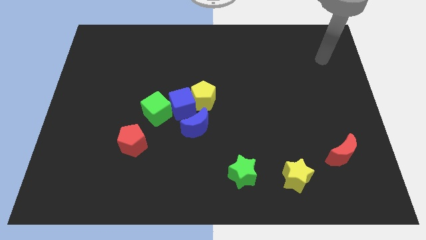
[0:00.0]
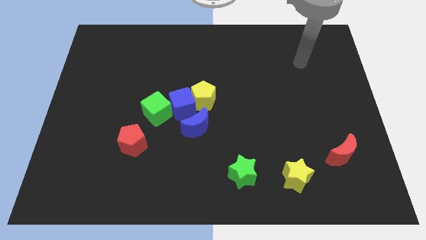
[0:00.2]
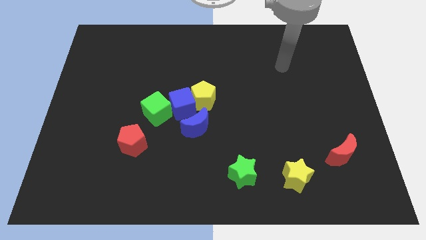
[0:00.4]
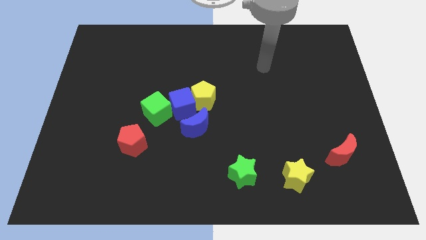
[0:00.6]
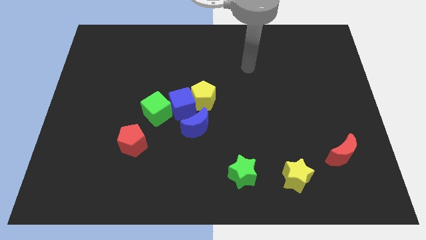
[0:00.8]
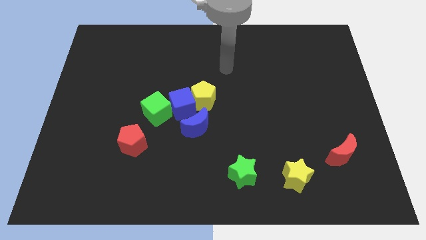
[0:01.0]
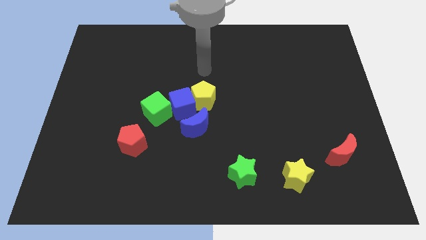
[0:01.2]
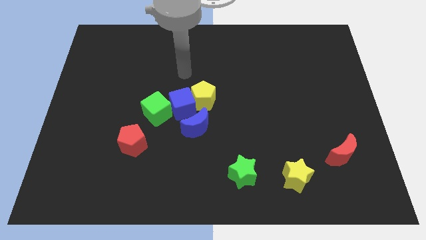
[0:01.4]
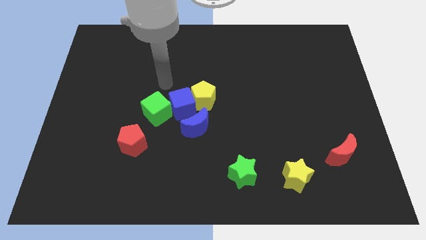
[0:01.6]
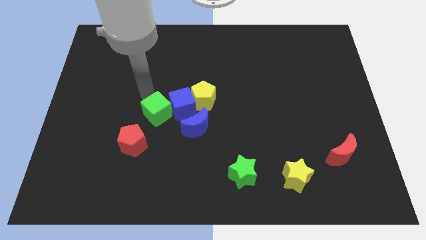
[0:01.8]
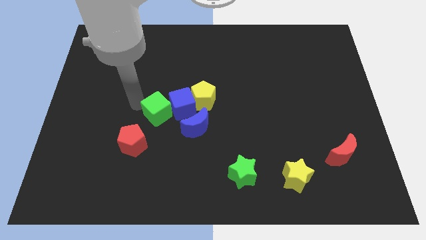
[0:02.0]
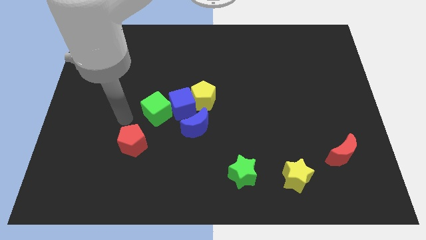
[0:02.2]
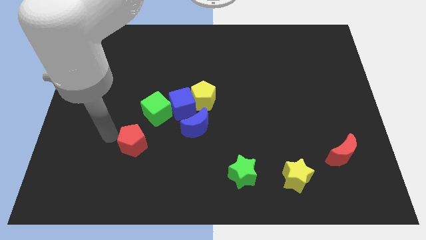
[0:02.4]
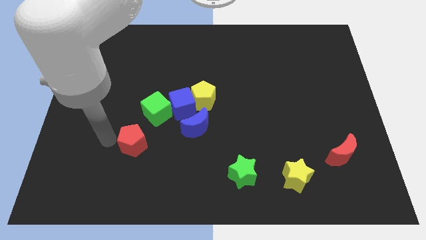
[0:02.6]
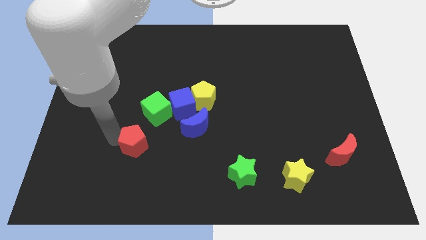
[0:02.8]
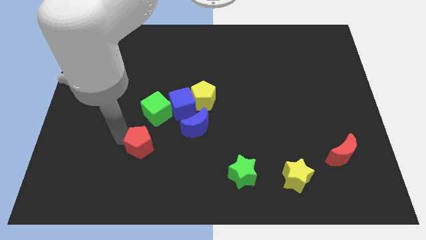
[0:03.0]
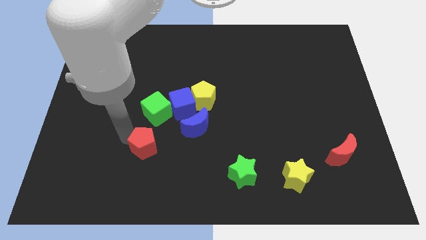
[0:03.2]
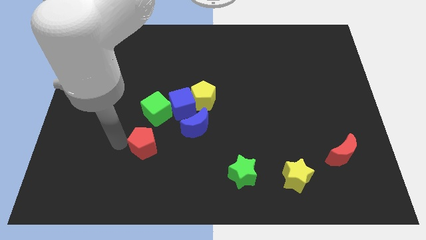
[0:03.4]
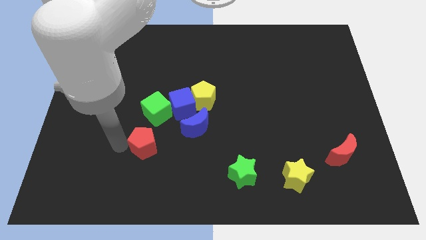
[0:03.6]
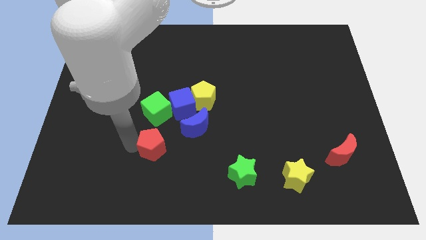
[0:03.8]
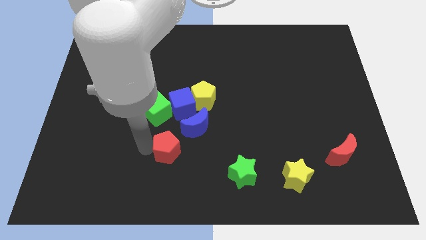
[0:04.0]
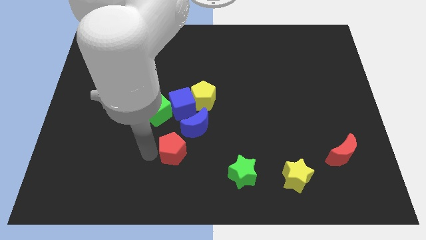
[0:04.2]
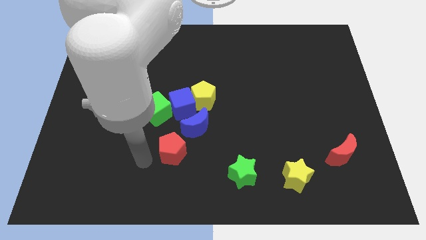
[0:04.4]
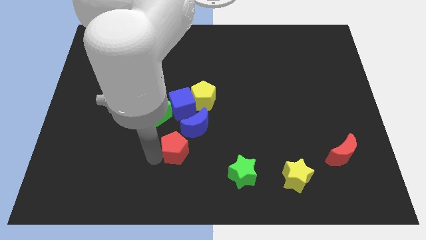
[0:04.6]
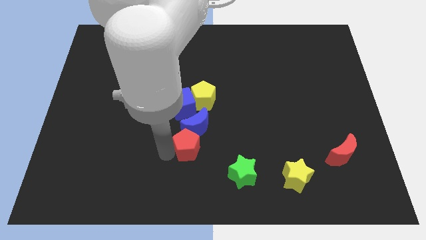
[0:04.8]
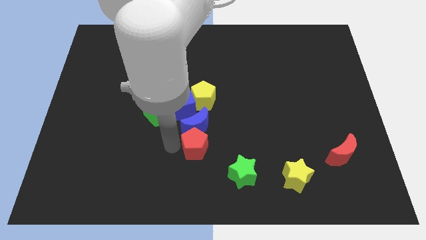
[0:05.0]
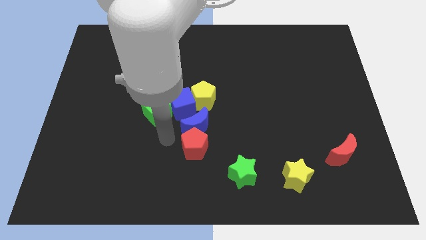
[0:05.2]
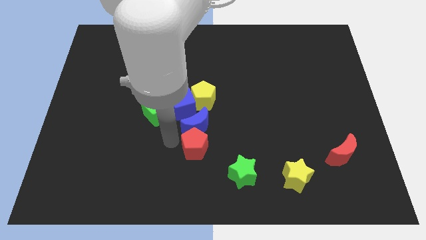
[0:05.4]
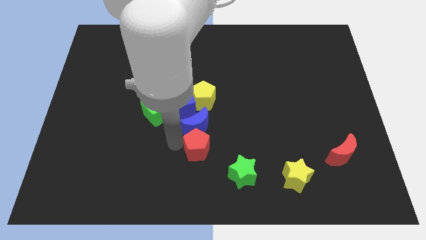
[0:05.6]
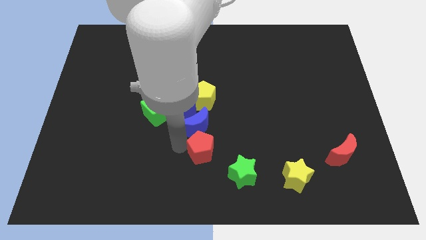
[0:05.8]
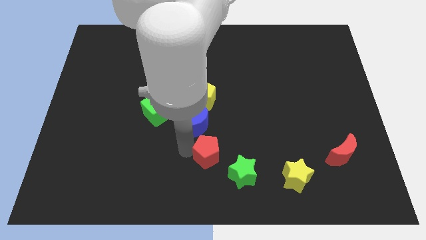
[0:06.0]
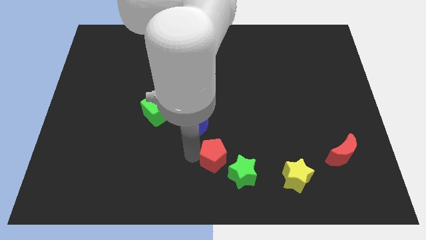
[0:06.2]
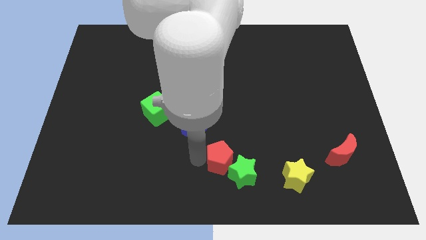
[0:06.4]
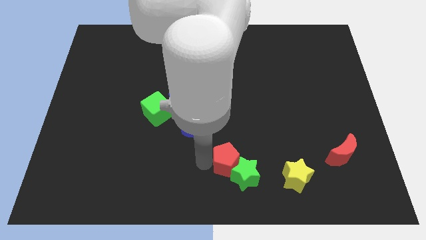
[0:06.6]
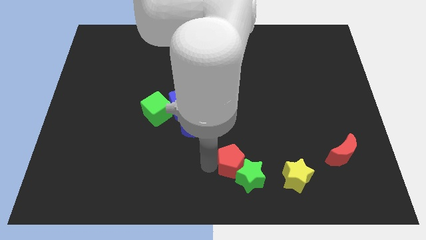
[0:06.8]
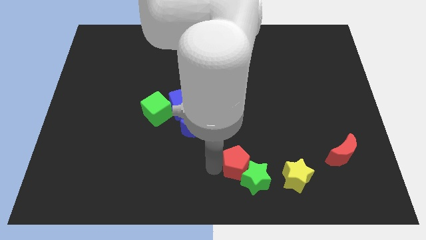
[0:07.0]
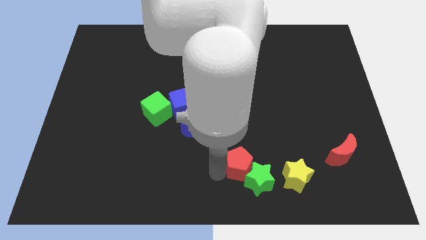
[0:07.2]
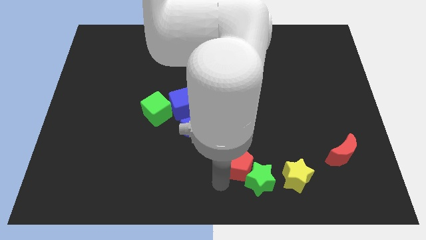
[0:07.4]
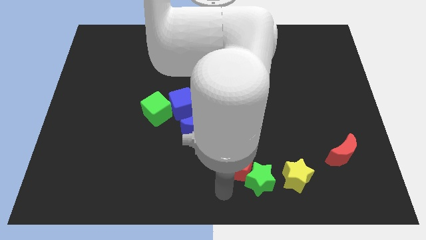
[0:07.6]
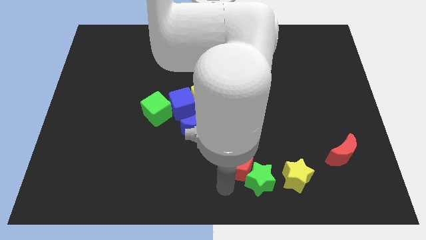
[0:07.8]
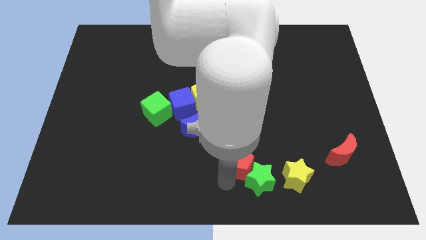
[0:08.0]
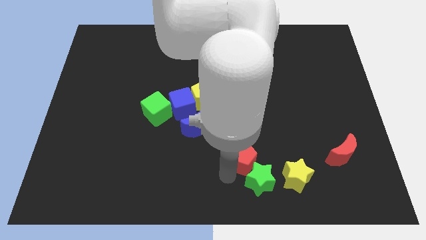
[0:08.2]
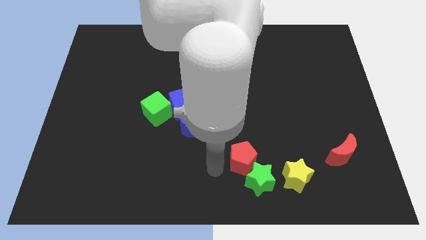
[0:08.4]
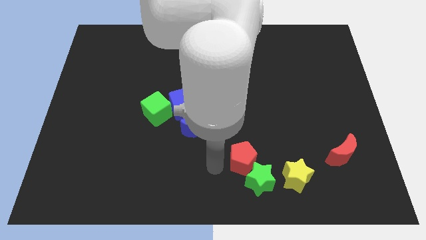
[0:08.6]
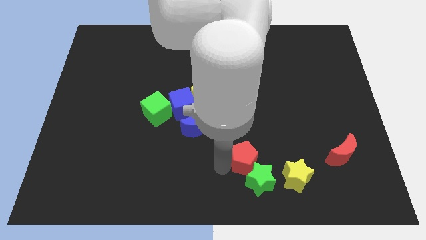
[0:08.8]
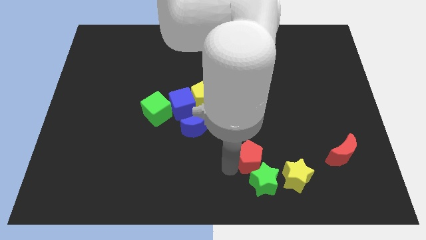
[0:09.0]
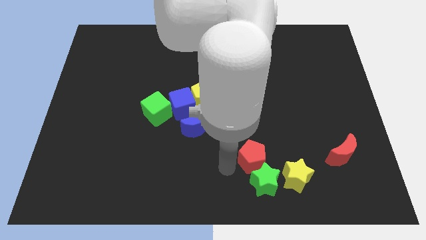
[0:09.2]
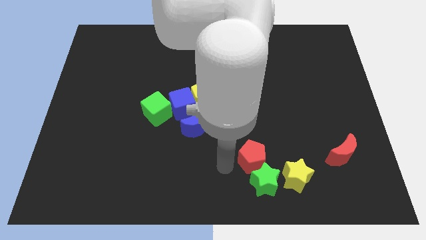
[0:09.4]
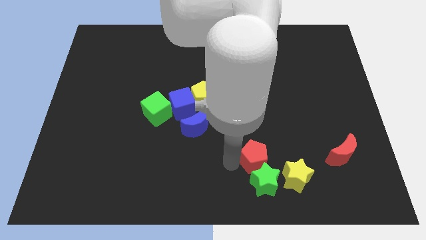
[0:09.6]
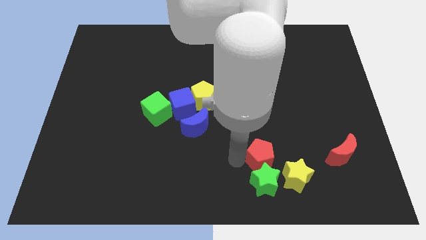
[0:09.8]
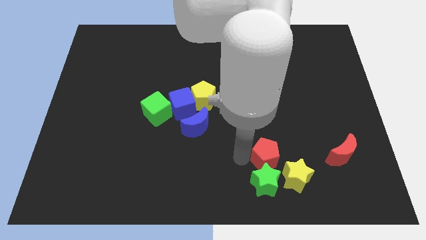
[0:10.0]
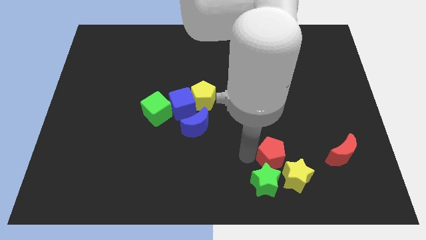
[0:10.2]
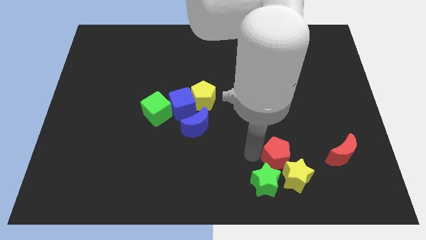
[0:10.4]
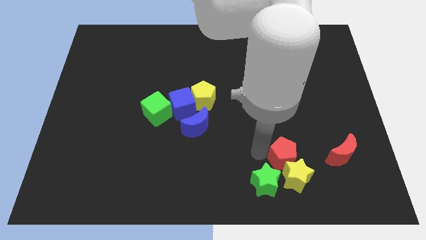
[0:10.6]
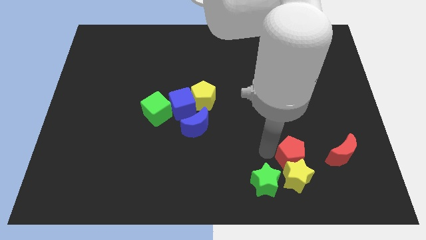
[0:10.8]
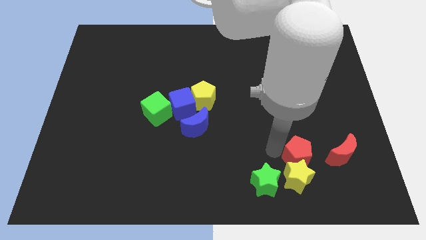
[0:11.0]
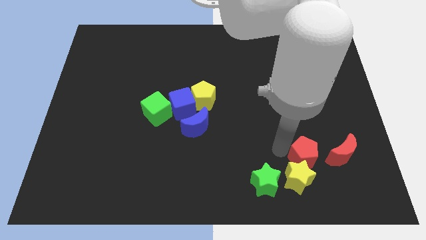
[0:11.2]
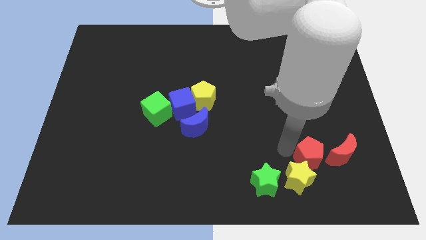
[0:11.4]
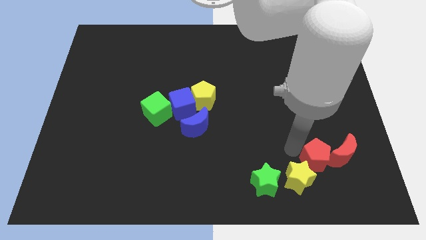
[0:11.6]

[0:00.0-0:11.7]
move the red pentagon close to the red moon

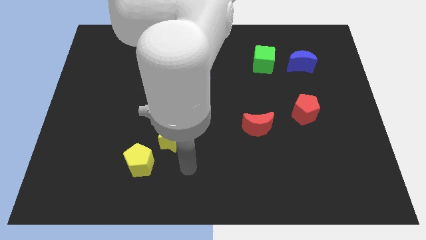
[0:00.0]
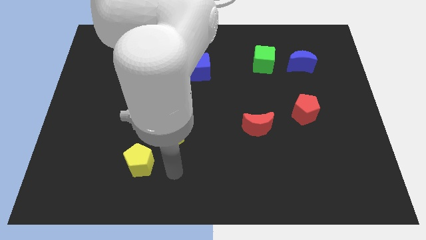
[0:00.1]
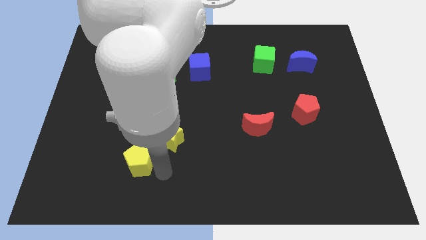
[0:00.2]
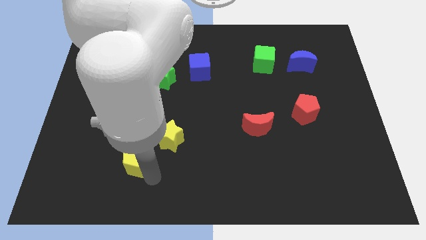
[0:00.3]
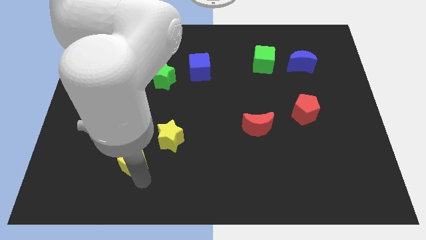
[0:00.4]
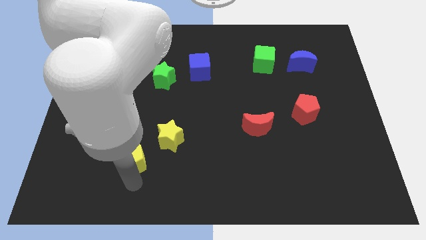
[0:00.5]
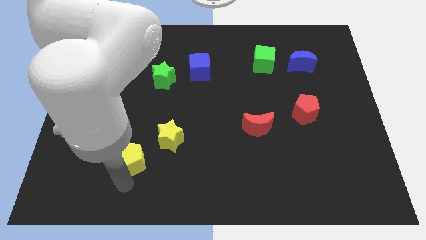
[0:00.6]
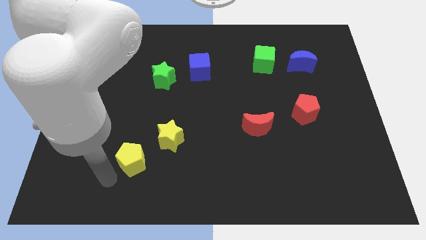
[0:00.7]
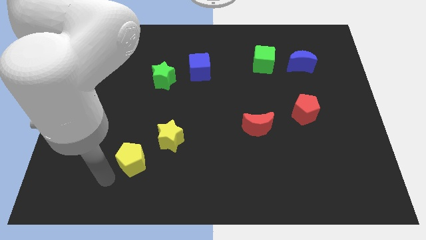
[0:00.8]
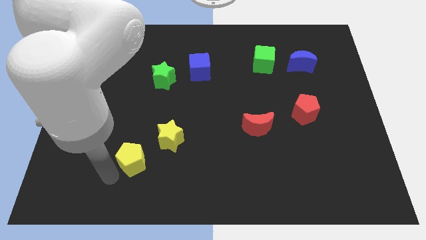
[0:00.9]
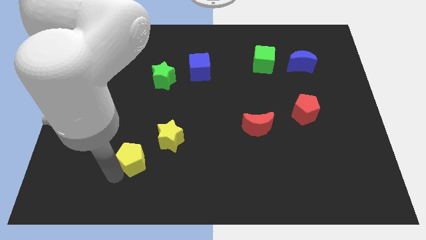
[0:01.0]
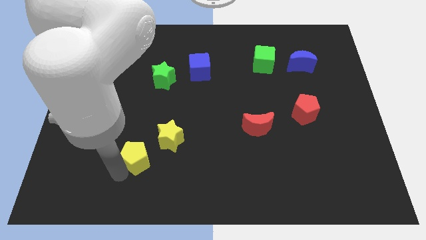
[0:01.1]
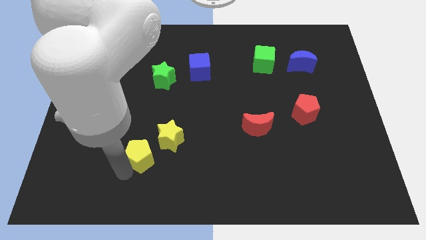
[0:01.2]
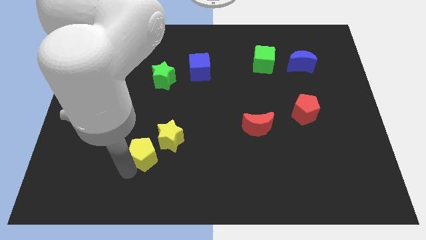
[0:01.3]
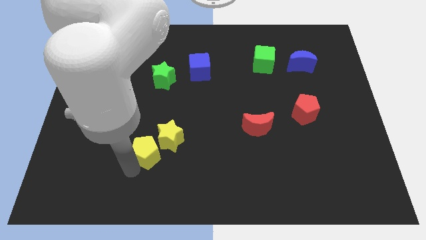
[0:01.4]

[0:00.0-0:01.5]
put the yellow pentagon to the yellow star

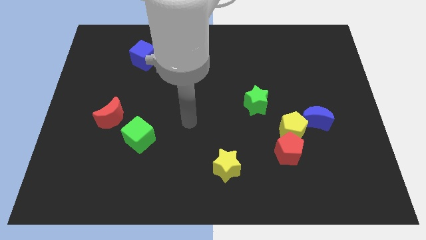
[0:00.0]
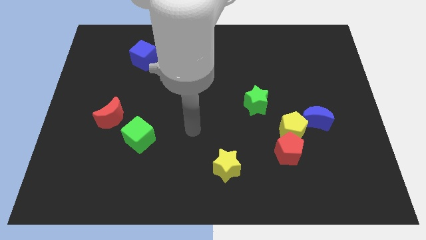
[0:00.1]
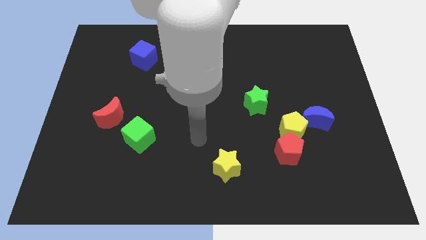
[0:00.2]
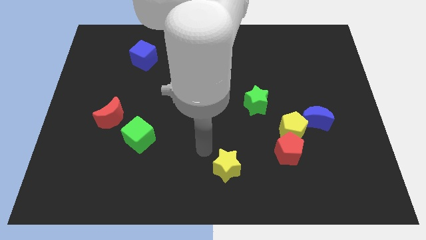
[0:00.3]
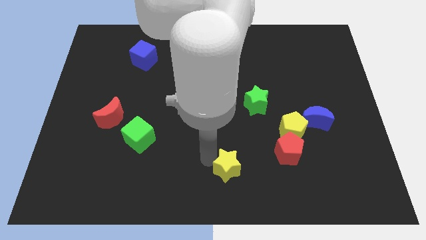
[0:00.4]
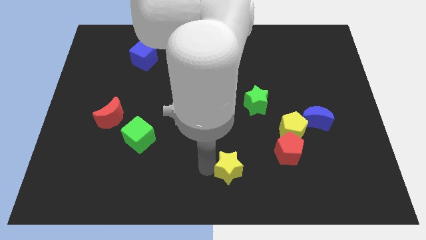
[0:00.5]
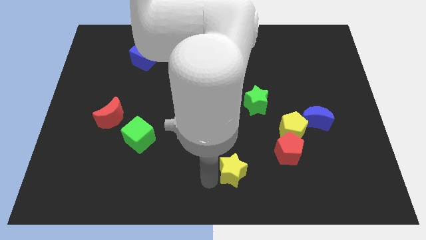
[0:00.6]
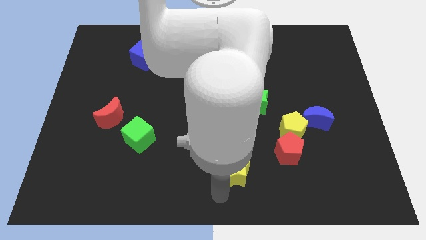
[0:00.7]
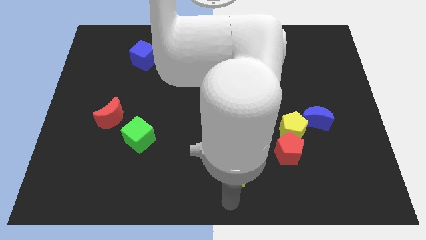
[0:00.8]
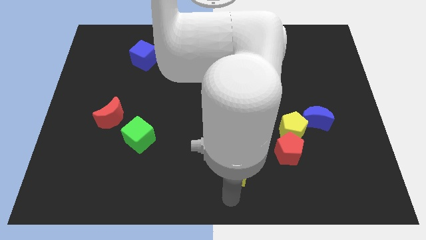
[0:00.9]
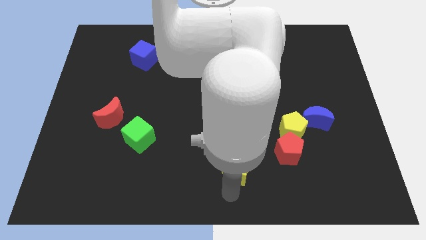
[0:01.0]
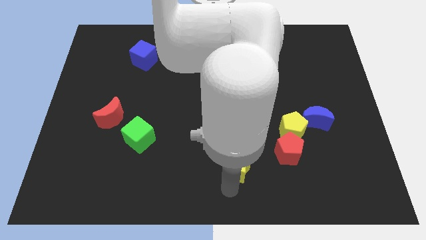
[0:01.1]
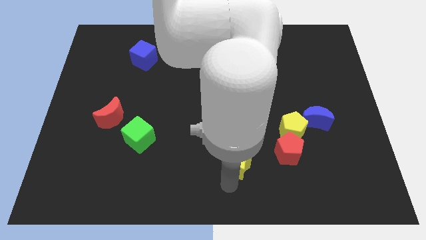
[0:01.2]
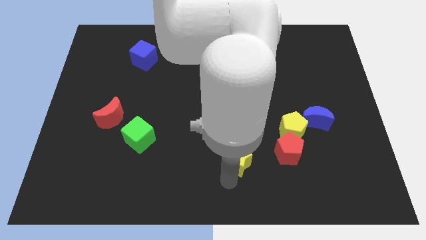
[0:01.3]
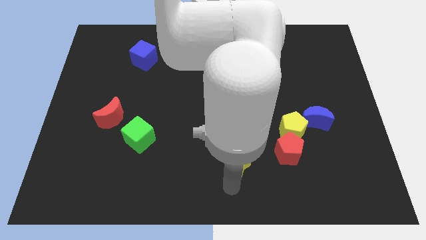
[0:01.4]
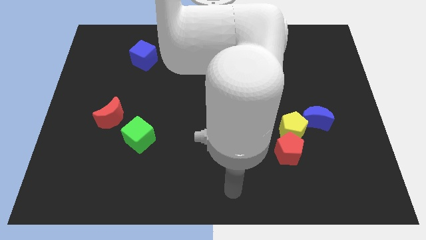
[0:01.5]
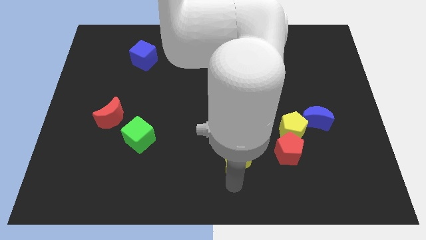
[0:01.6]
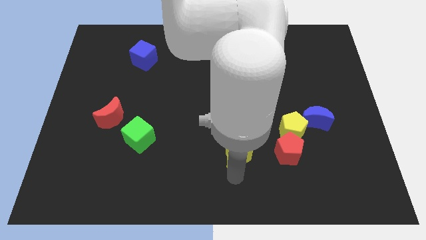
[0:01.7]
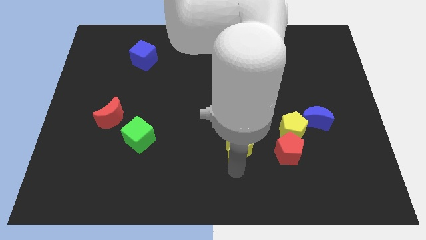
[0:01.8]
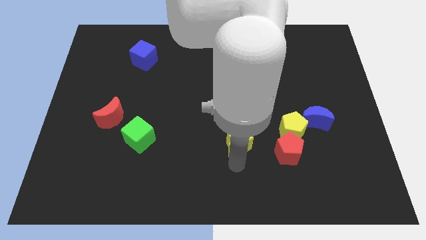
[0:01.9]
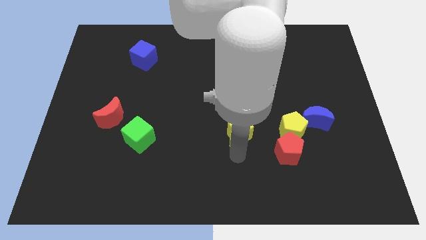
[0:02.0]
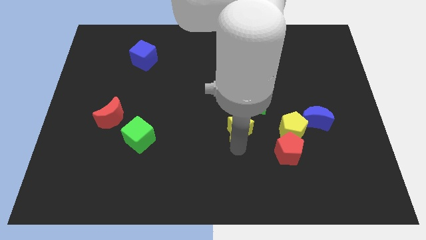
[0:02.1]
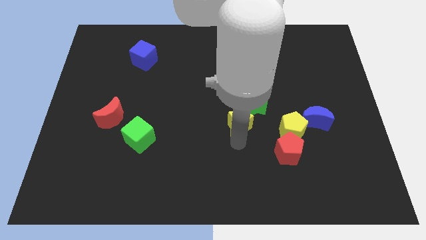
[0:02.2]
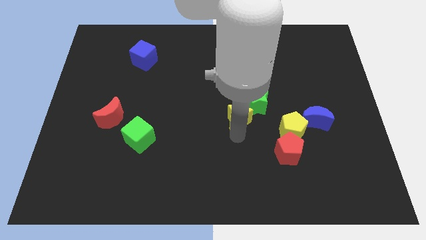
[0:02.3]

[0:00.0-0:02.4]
push the yellow star to the green star
